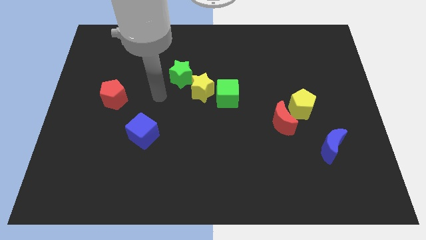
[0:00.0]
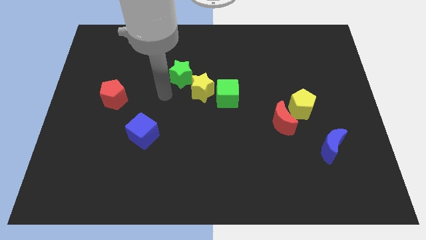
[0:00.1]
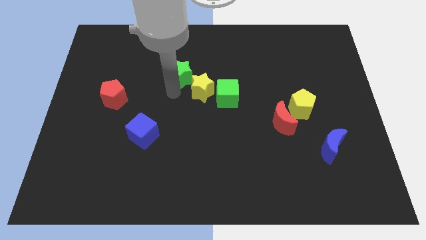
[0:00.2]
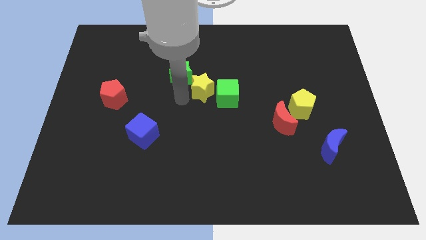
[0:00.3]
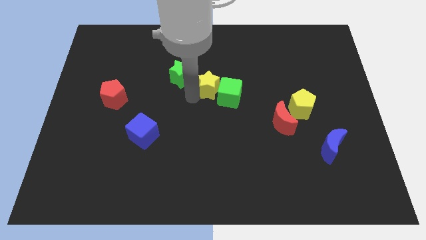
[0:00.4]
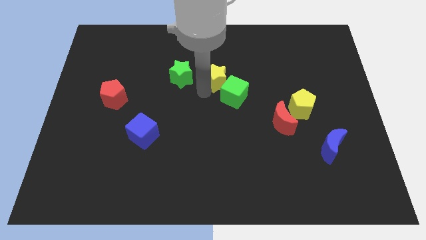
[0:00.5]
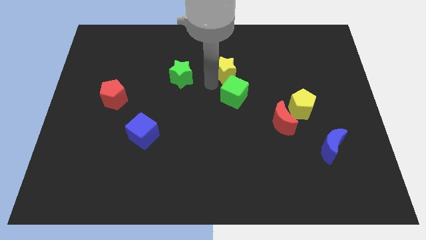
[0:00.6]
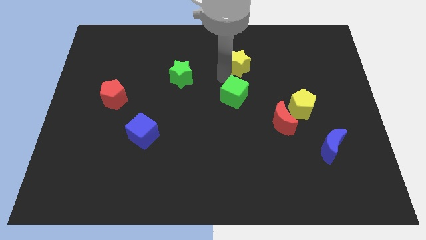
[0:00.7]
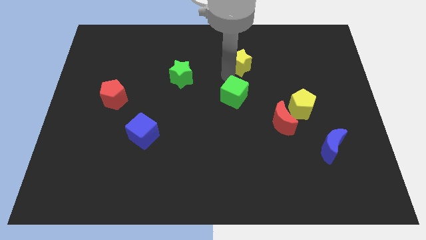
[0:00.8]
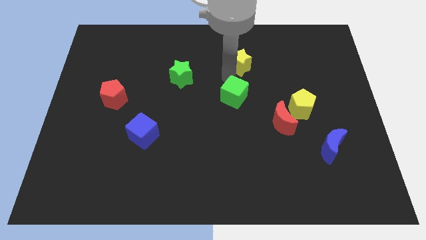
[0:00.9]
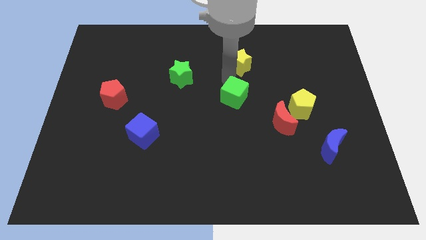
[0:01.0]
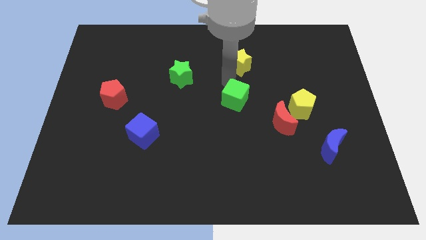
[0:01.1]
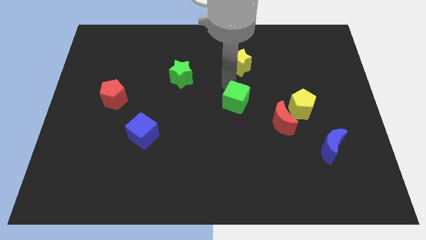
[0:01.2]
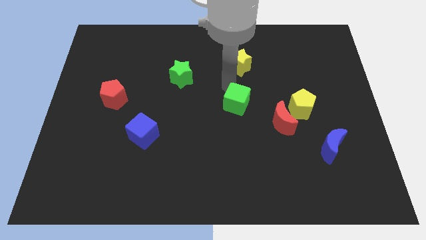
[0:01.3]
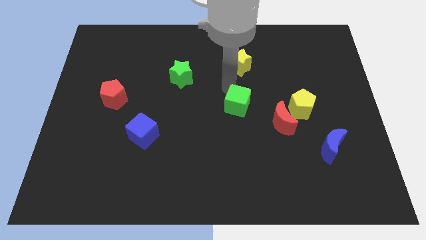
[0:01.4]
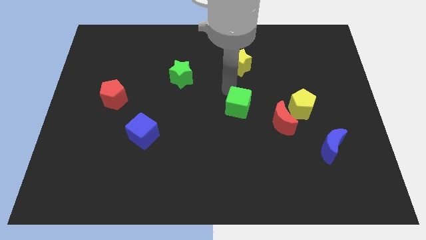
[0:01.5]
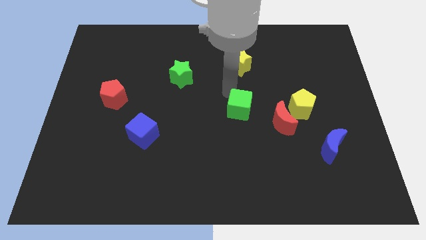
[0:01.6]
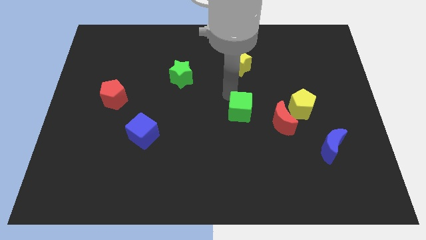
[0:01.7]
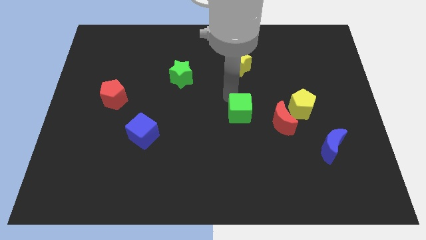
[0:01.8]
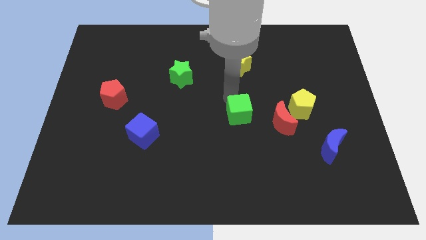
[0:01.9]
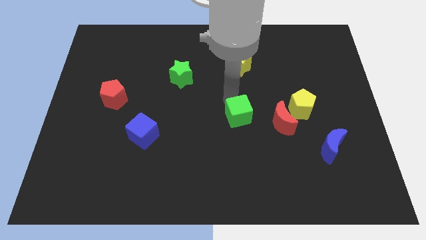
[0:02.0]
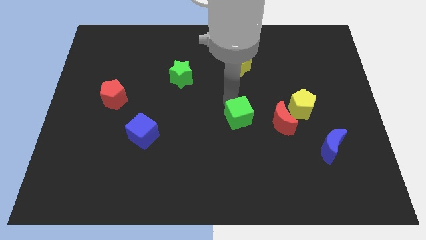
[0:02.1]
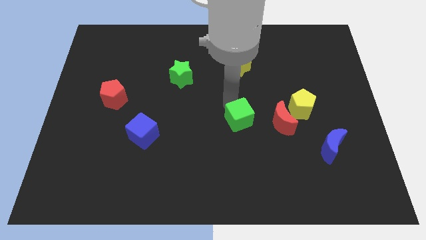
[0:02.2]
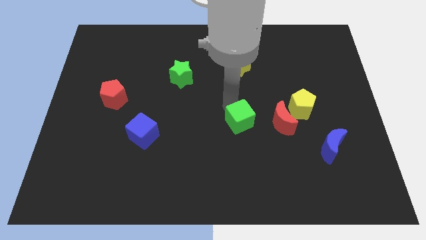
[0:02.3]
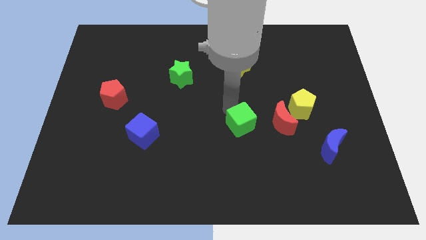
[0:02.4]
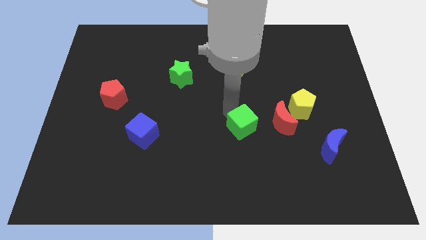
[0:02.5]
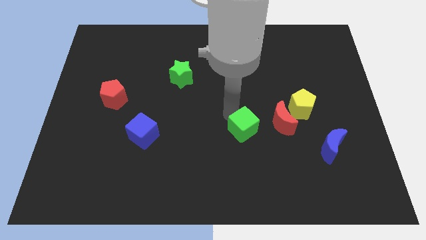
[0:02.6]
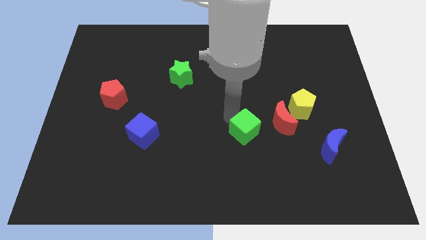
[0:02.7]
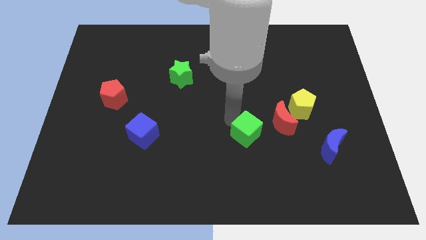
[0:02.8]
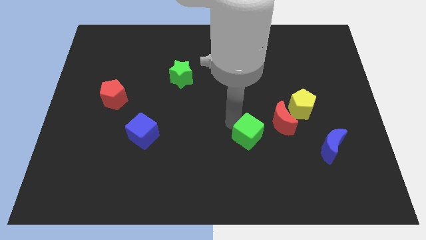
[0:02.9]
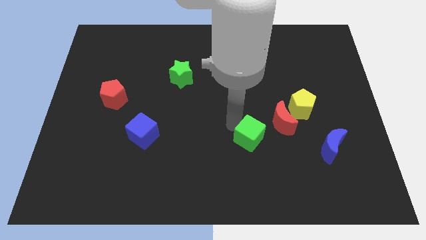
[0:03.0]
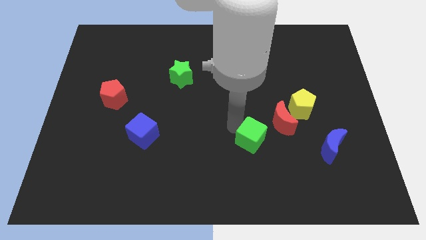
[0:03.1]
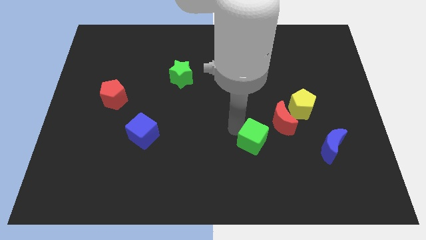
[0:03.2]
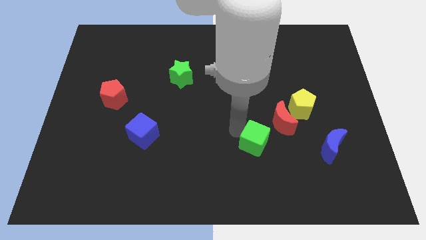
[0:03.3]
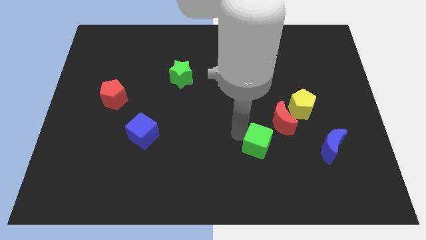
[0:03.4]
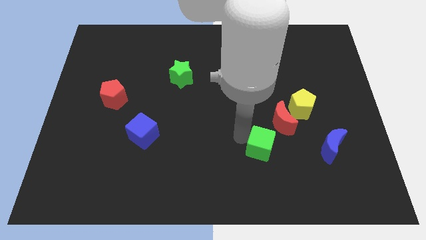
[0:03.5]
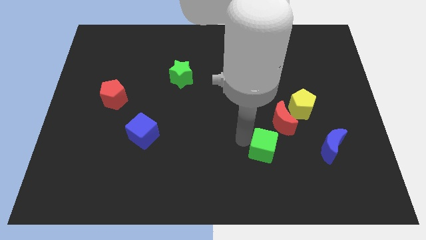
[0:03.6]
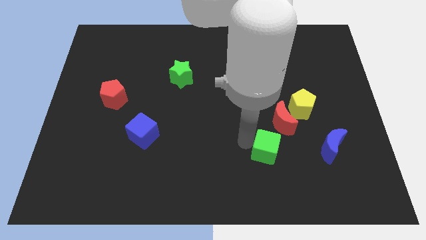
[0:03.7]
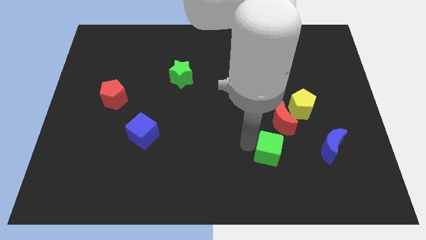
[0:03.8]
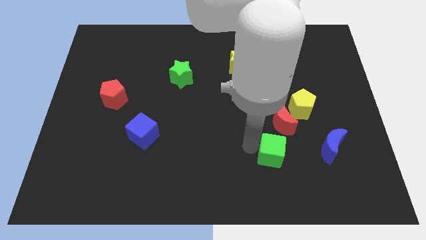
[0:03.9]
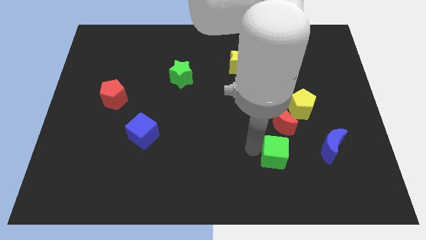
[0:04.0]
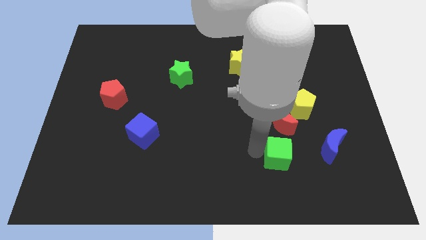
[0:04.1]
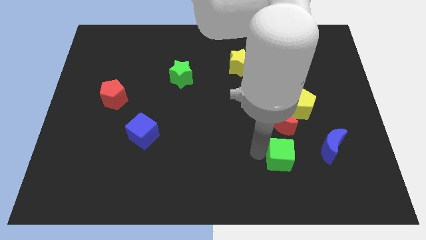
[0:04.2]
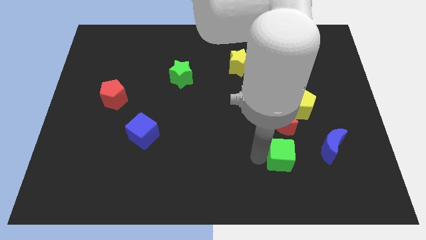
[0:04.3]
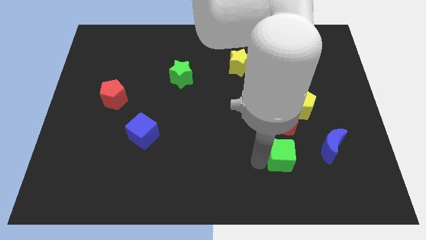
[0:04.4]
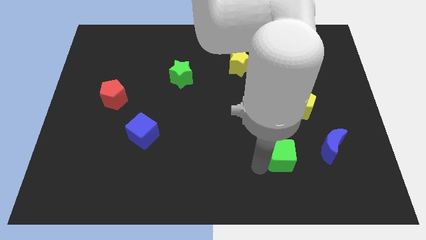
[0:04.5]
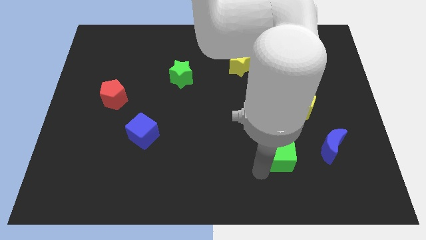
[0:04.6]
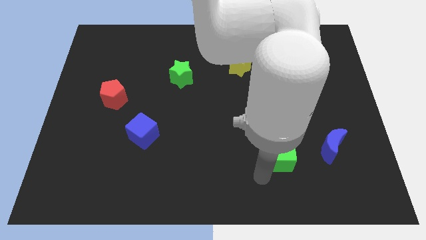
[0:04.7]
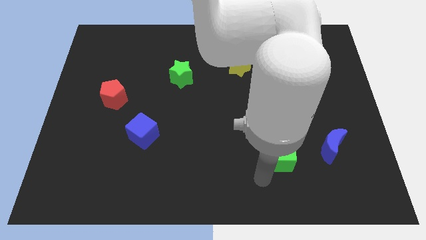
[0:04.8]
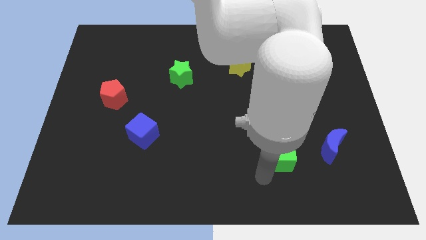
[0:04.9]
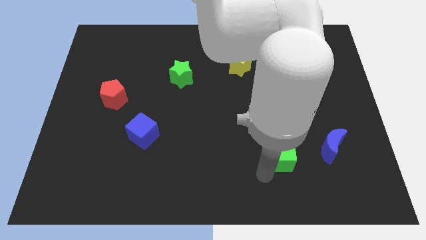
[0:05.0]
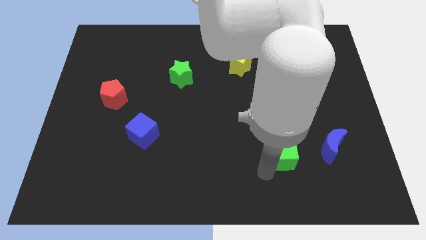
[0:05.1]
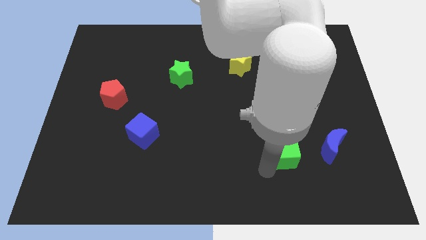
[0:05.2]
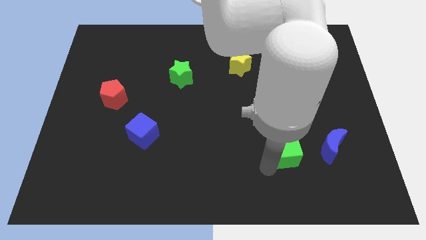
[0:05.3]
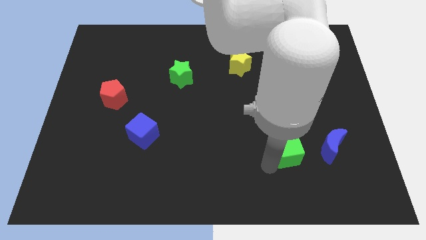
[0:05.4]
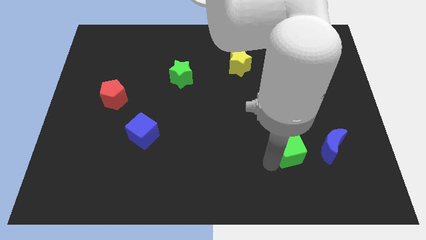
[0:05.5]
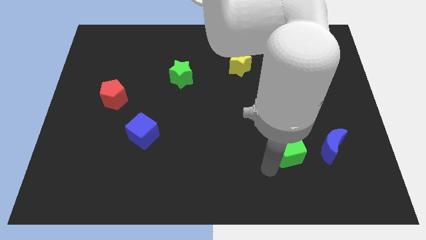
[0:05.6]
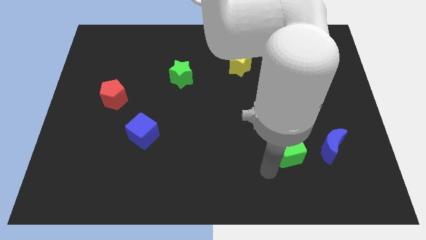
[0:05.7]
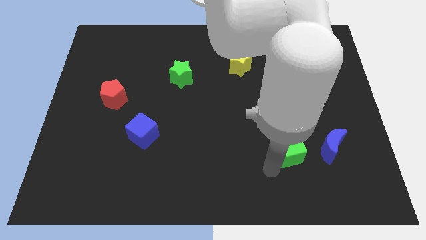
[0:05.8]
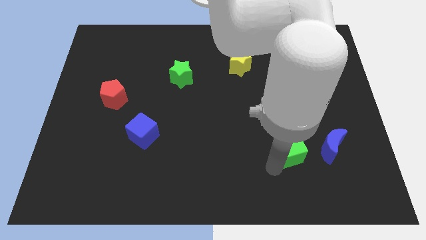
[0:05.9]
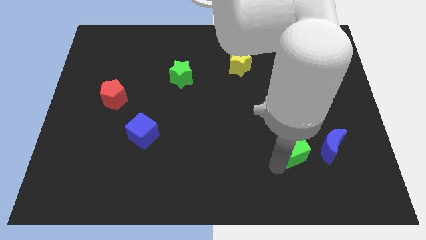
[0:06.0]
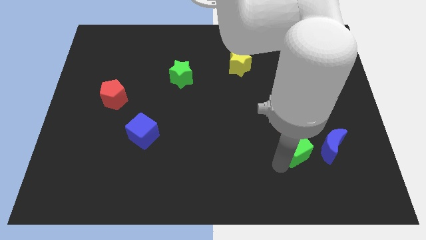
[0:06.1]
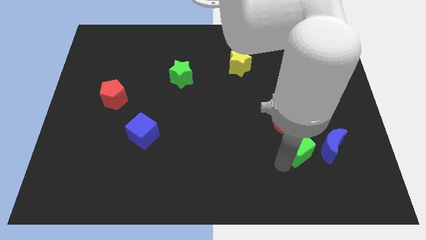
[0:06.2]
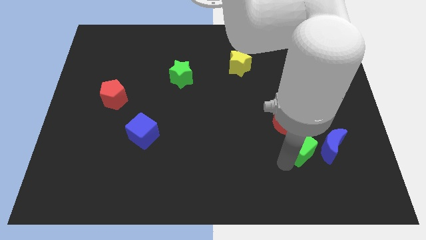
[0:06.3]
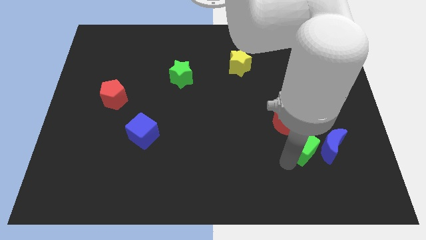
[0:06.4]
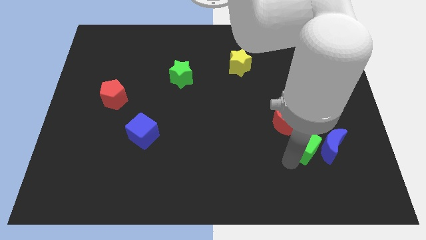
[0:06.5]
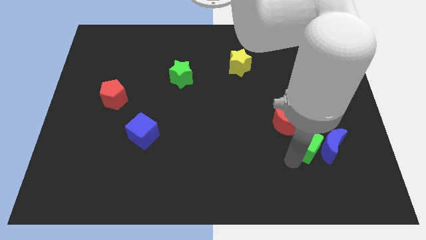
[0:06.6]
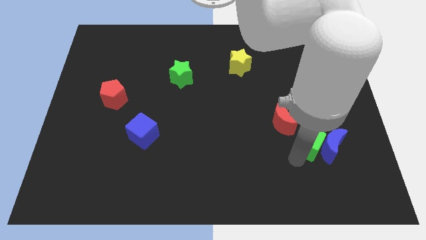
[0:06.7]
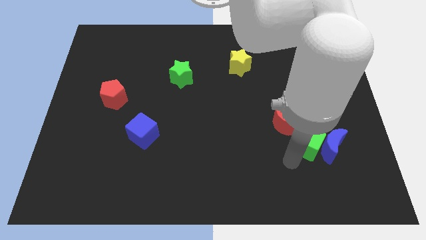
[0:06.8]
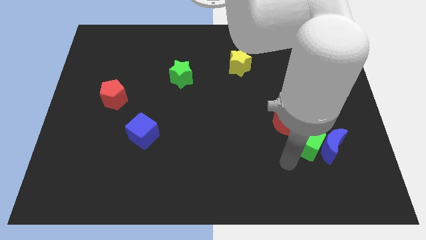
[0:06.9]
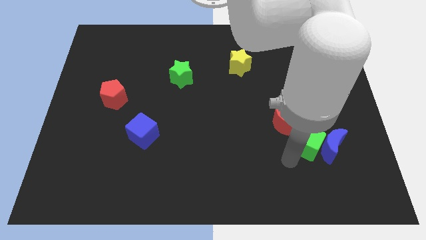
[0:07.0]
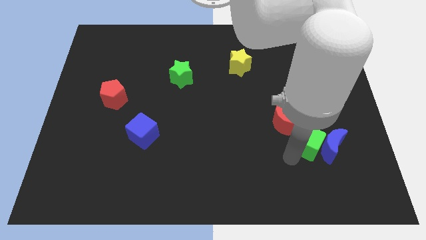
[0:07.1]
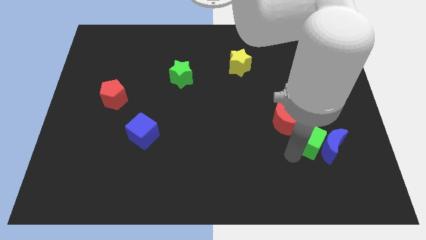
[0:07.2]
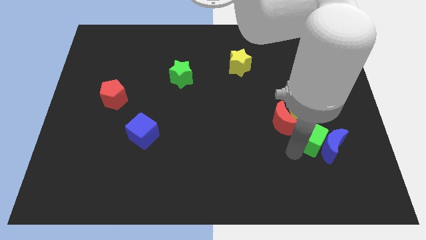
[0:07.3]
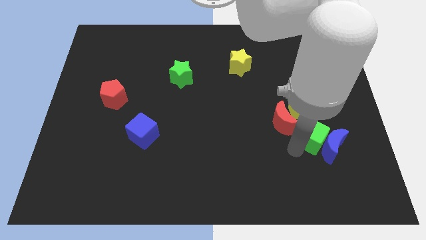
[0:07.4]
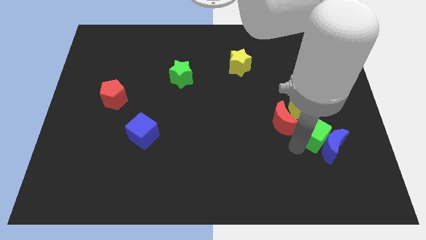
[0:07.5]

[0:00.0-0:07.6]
move the green cube diagonally down and to the right of the yellow pentagon
